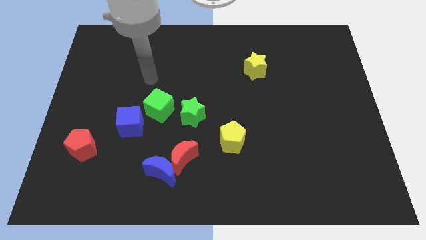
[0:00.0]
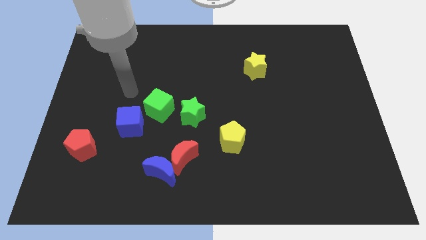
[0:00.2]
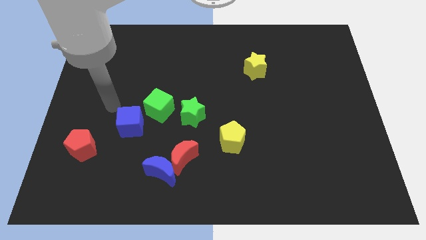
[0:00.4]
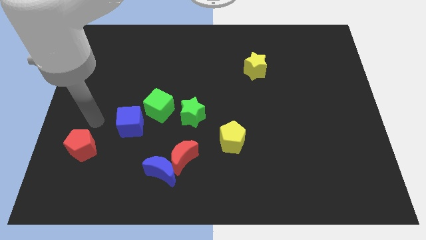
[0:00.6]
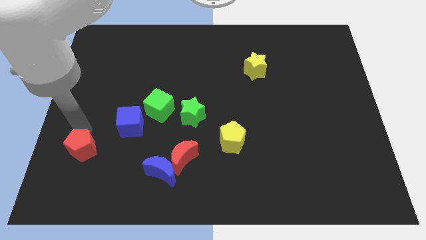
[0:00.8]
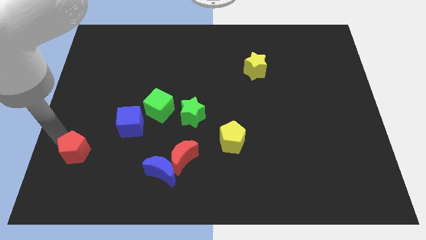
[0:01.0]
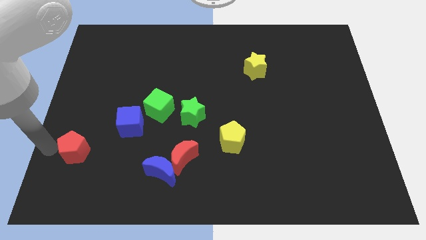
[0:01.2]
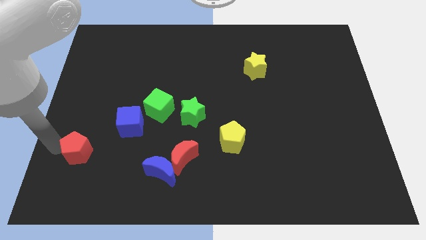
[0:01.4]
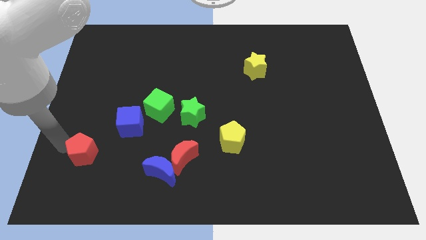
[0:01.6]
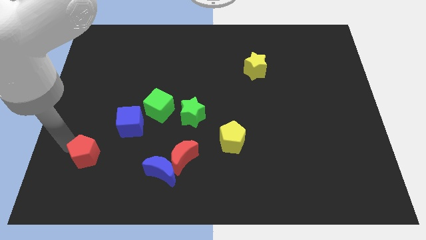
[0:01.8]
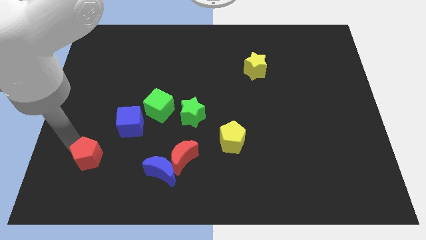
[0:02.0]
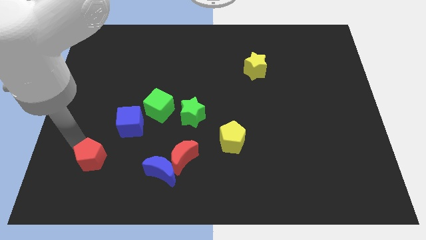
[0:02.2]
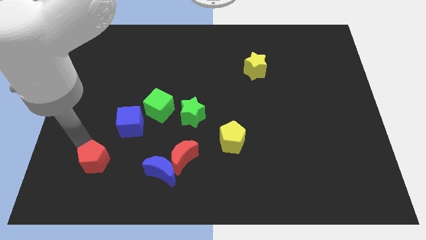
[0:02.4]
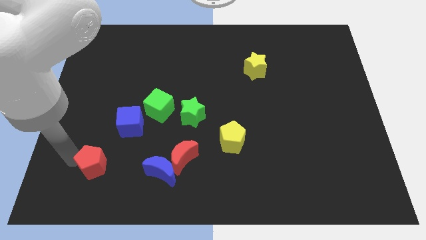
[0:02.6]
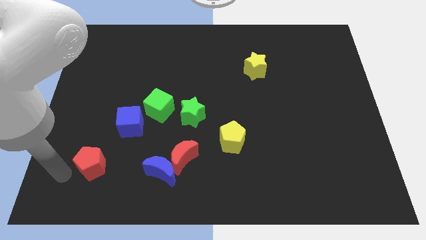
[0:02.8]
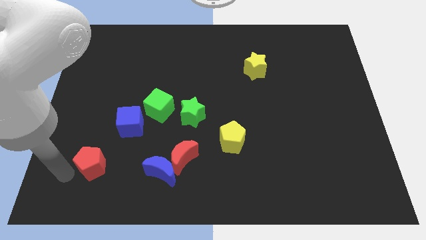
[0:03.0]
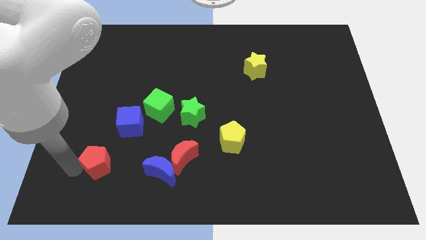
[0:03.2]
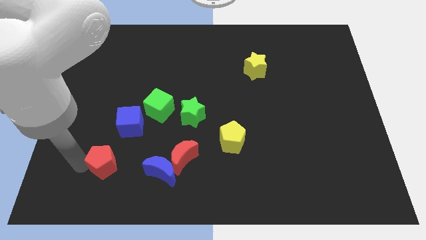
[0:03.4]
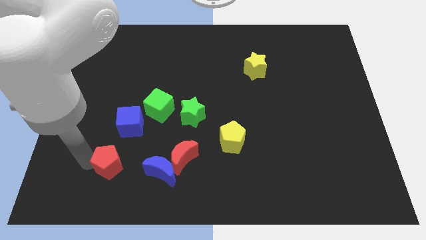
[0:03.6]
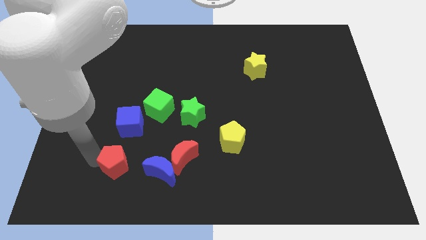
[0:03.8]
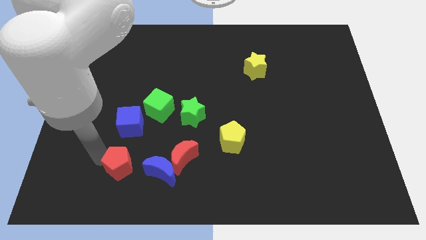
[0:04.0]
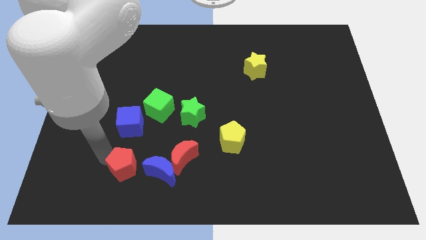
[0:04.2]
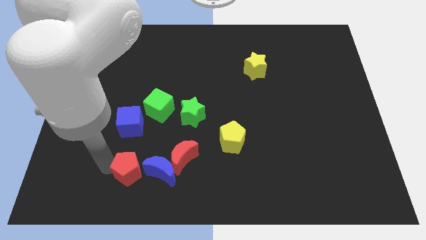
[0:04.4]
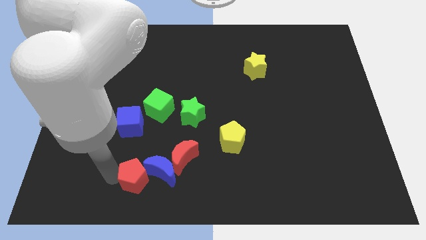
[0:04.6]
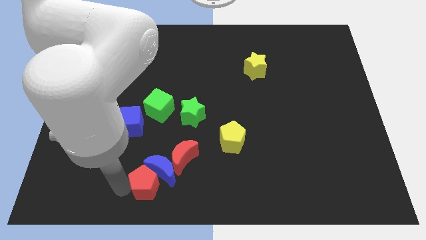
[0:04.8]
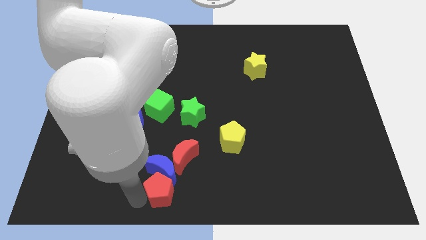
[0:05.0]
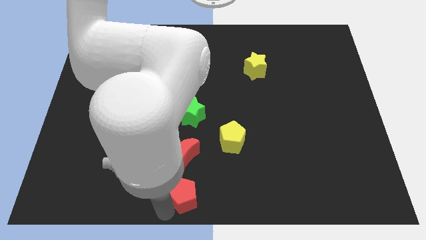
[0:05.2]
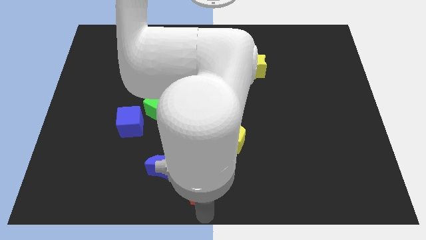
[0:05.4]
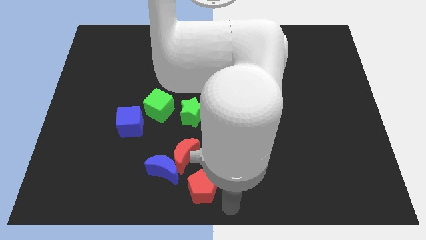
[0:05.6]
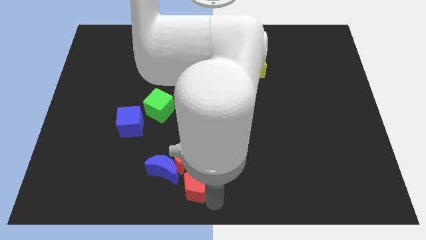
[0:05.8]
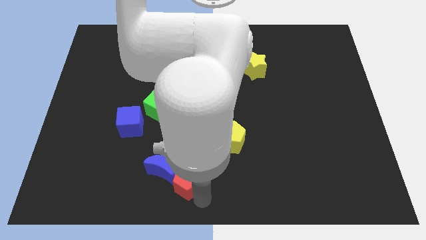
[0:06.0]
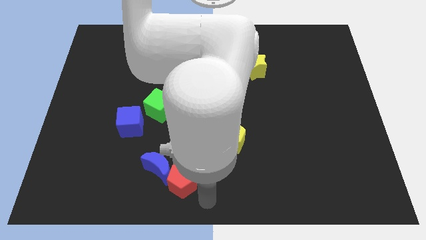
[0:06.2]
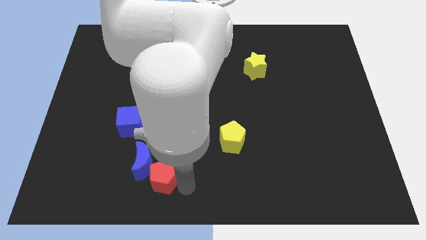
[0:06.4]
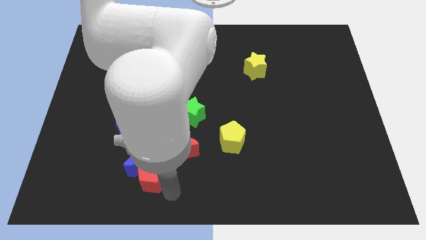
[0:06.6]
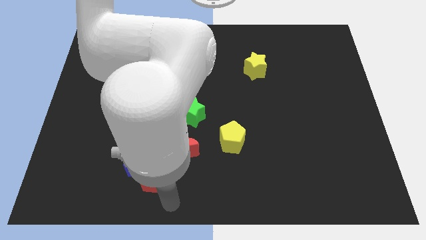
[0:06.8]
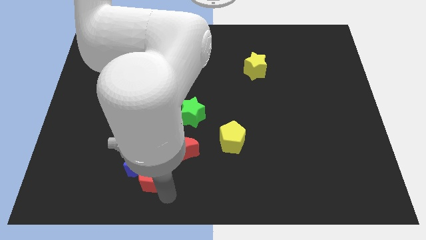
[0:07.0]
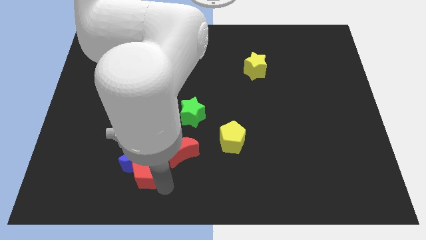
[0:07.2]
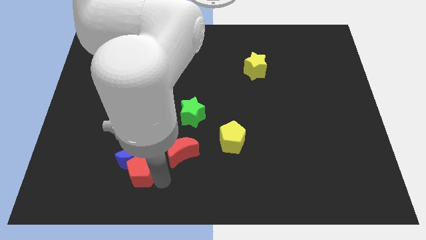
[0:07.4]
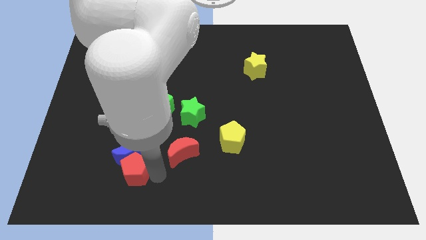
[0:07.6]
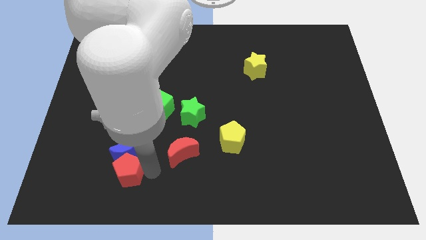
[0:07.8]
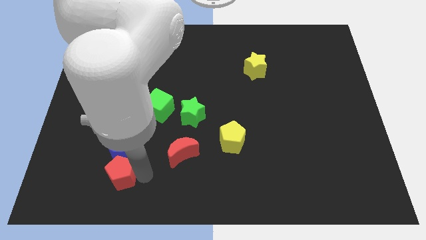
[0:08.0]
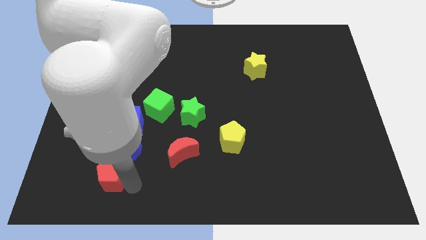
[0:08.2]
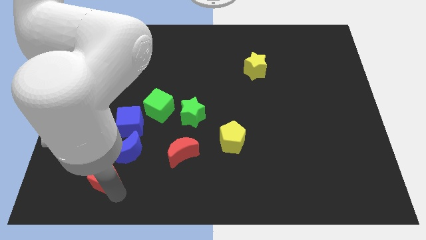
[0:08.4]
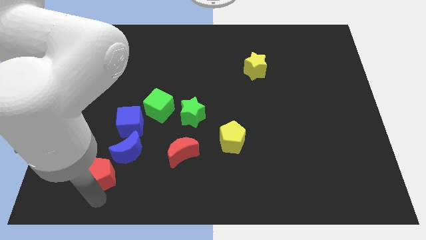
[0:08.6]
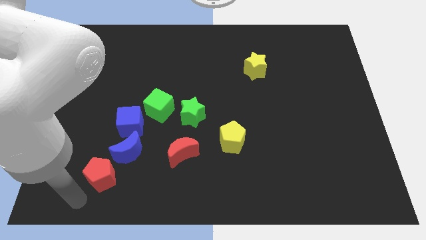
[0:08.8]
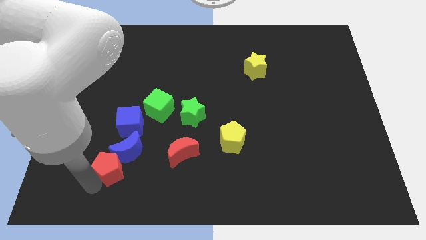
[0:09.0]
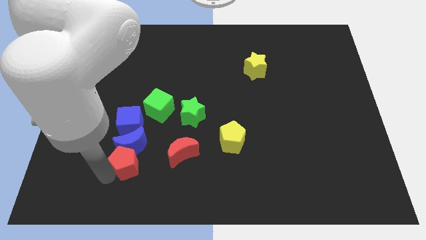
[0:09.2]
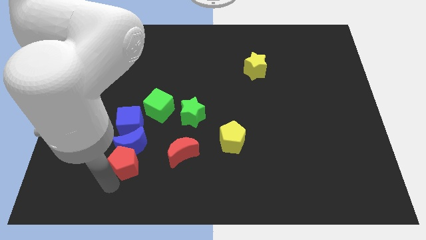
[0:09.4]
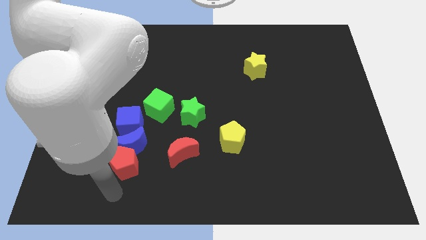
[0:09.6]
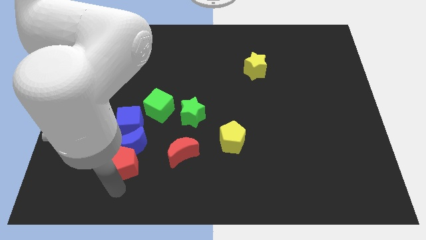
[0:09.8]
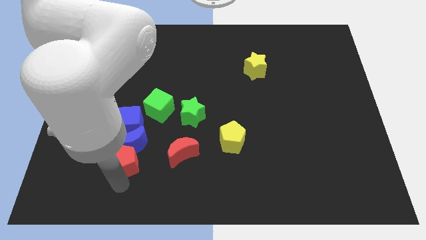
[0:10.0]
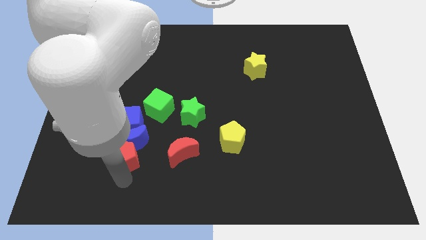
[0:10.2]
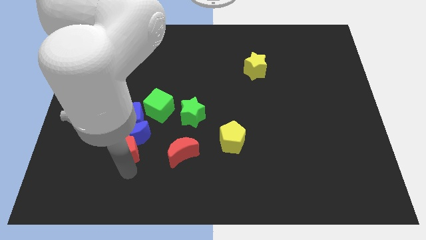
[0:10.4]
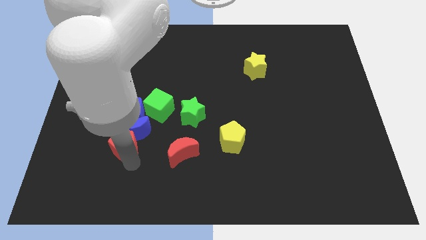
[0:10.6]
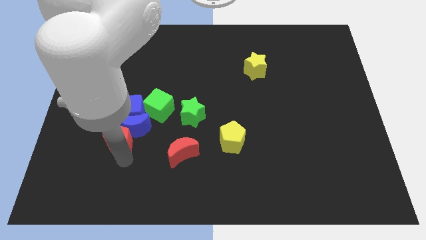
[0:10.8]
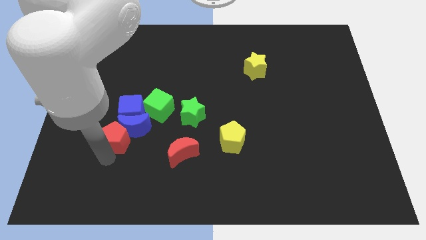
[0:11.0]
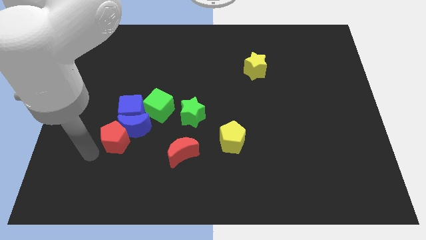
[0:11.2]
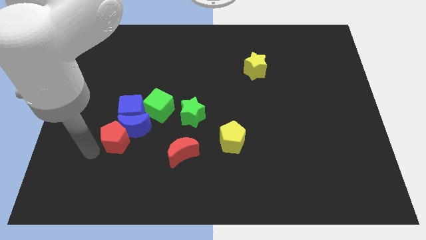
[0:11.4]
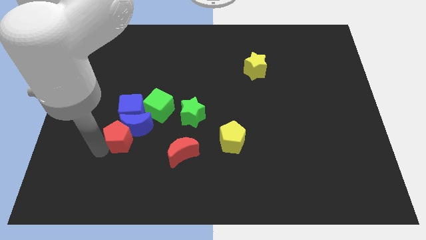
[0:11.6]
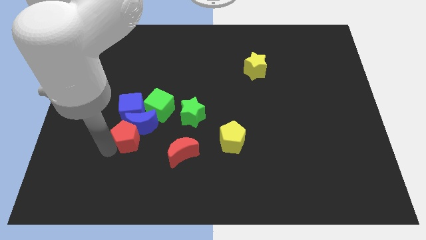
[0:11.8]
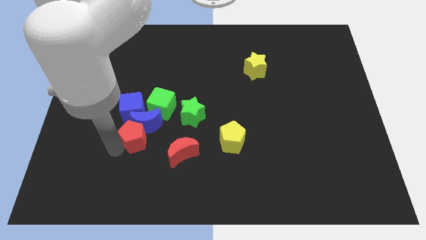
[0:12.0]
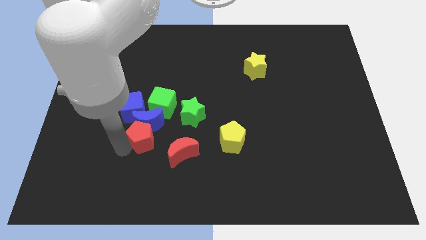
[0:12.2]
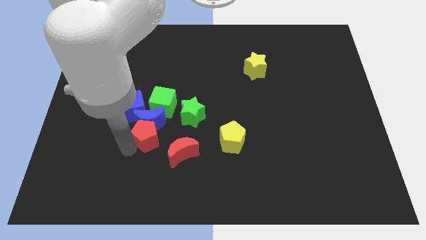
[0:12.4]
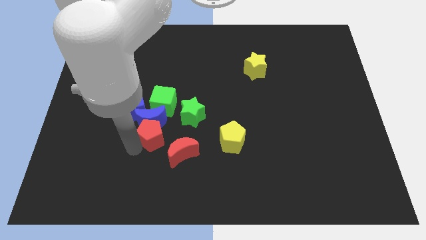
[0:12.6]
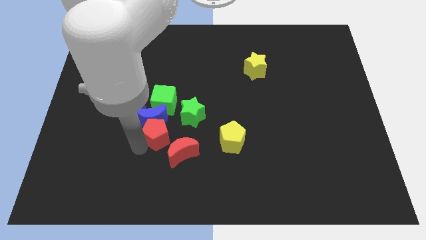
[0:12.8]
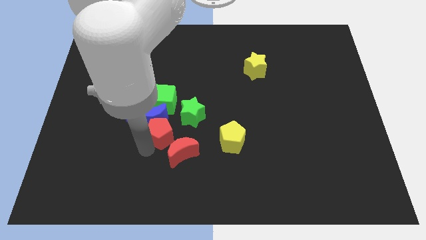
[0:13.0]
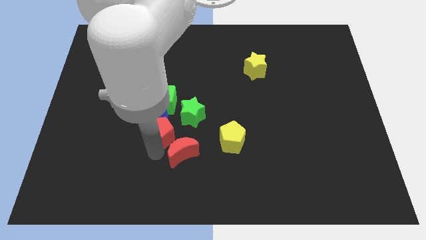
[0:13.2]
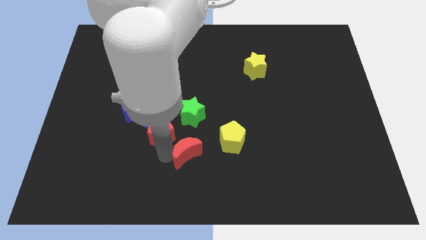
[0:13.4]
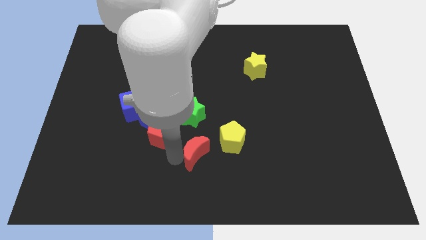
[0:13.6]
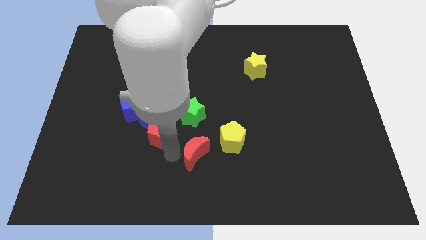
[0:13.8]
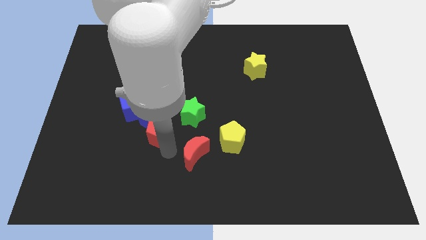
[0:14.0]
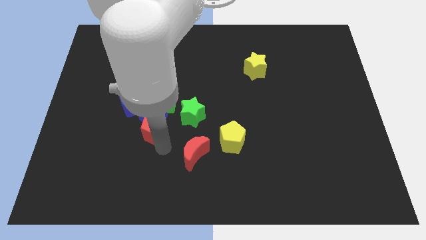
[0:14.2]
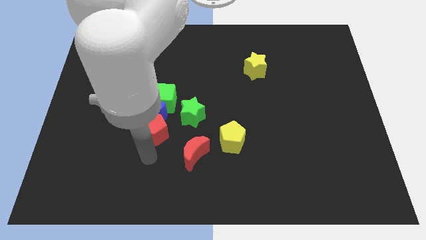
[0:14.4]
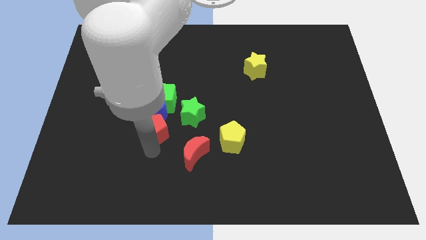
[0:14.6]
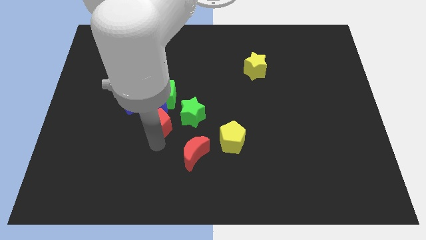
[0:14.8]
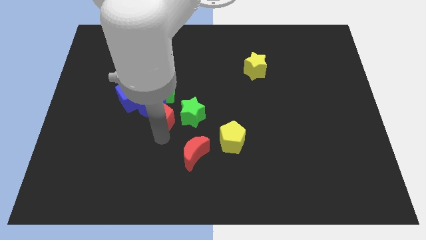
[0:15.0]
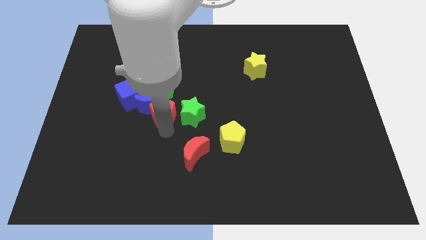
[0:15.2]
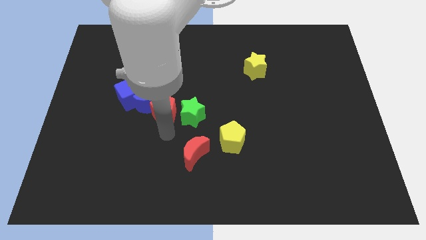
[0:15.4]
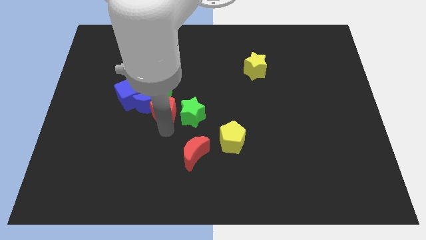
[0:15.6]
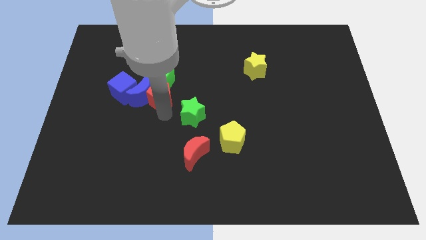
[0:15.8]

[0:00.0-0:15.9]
slide the red pentagon next to the green cube
